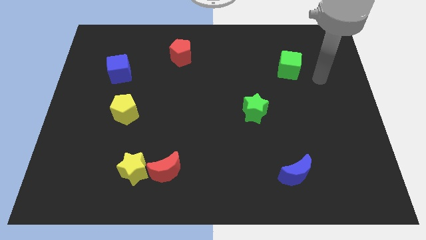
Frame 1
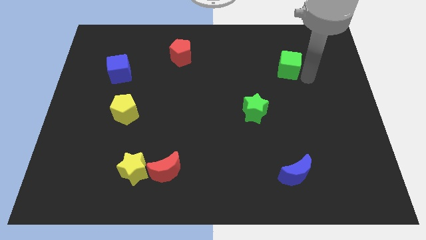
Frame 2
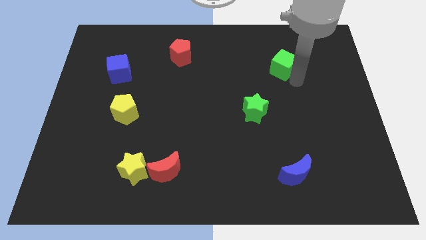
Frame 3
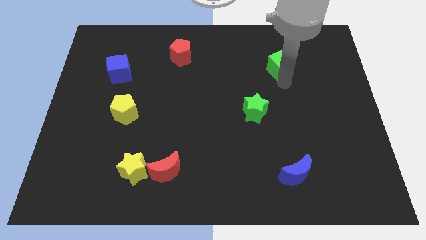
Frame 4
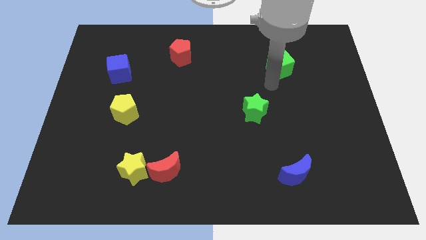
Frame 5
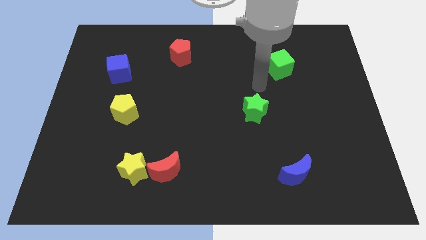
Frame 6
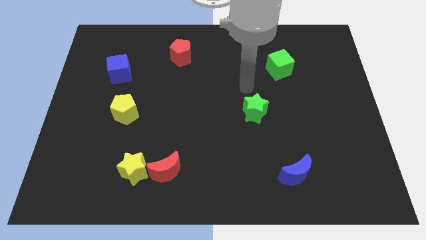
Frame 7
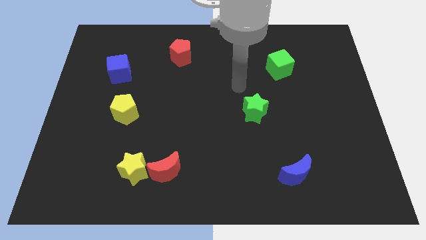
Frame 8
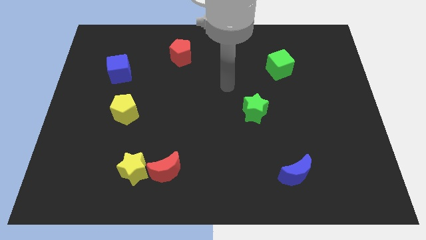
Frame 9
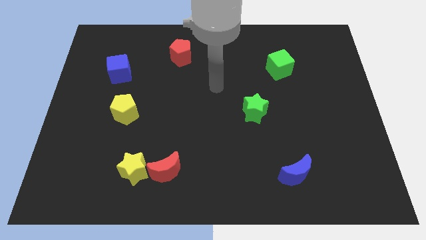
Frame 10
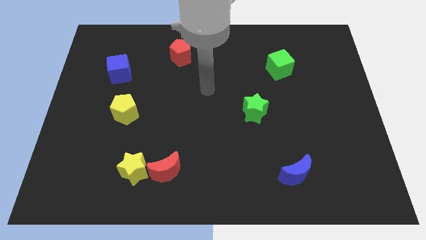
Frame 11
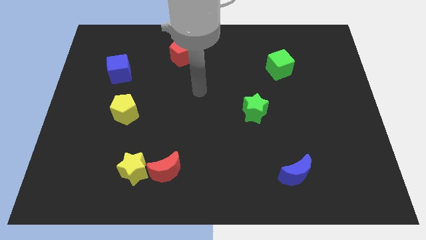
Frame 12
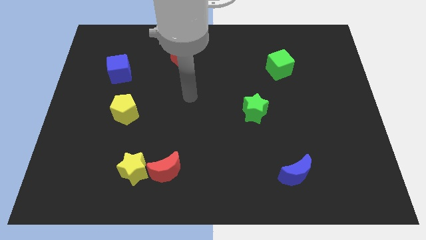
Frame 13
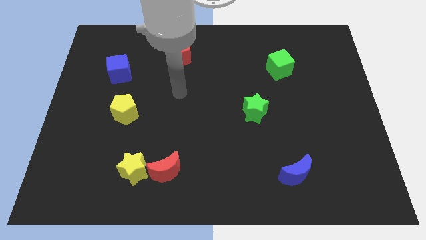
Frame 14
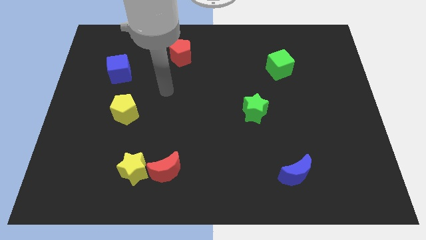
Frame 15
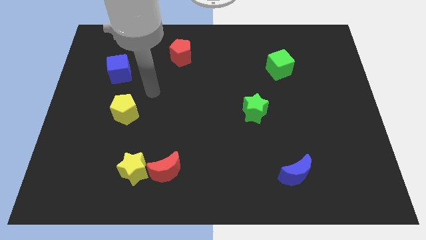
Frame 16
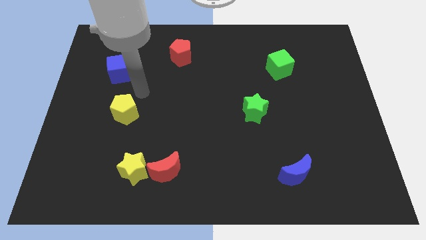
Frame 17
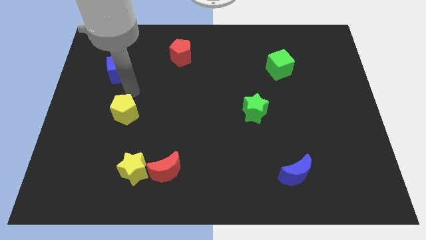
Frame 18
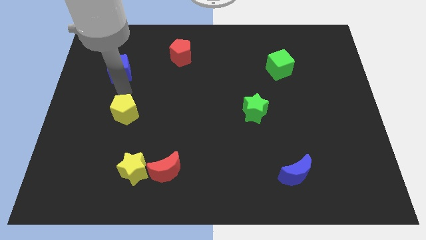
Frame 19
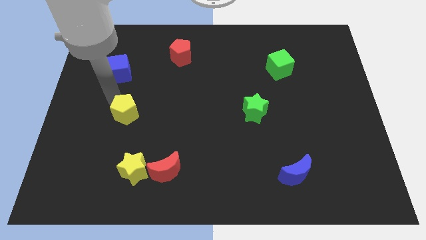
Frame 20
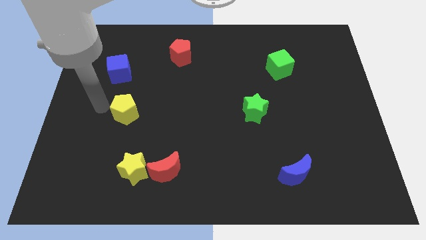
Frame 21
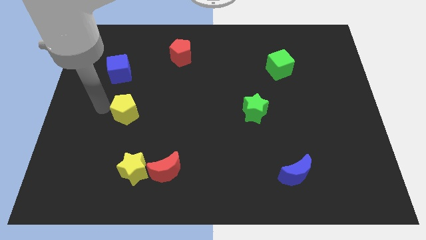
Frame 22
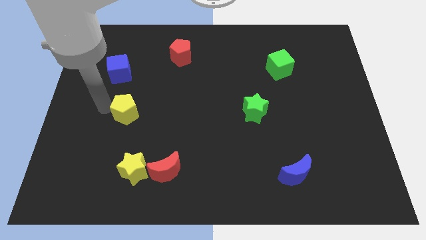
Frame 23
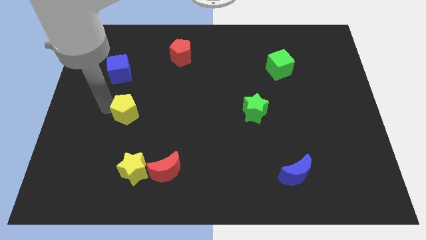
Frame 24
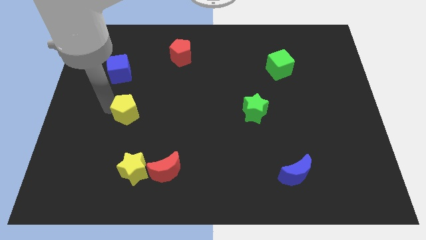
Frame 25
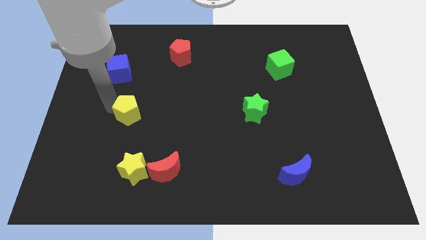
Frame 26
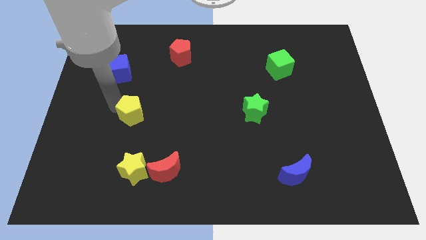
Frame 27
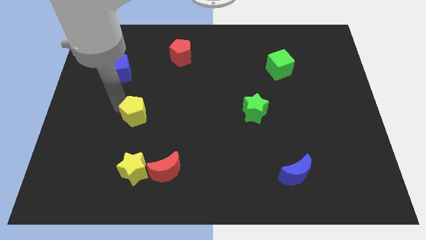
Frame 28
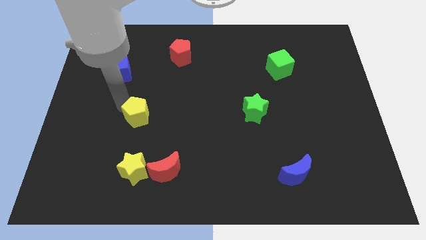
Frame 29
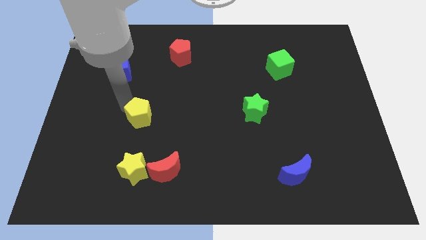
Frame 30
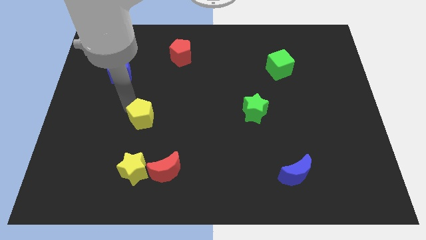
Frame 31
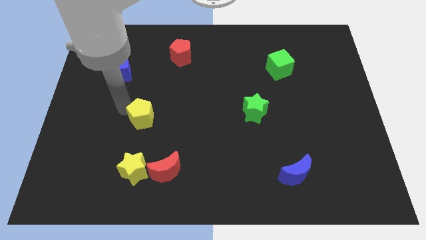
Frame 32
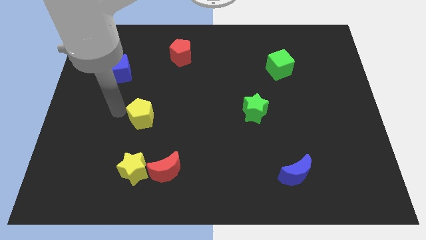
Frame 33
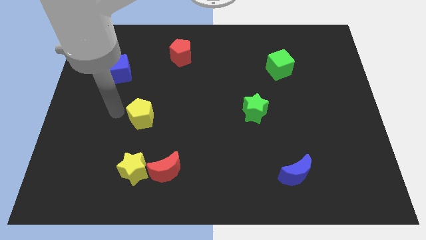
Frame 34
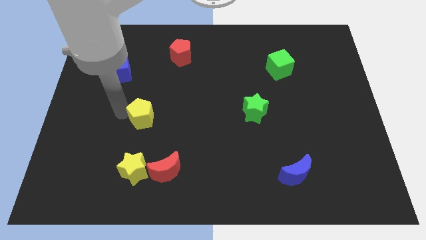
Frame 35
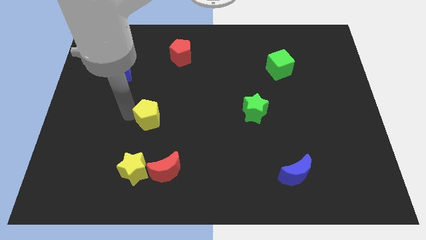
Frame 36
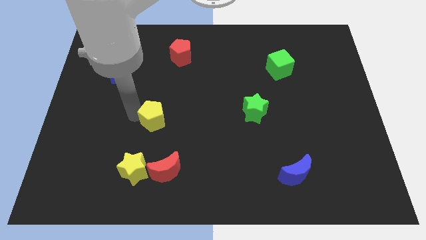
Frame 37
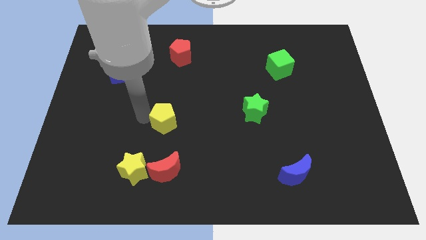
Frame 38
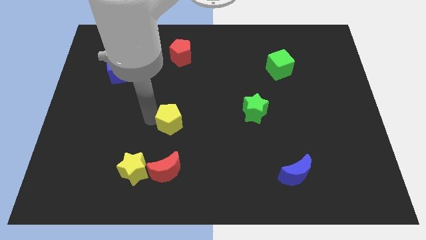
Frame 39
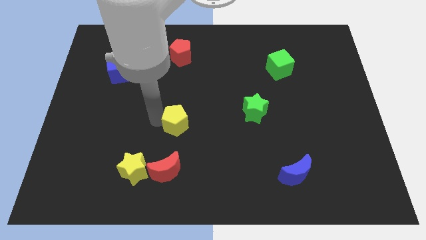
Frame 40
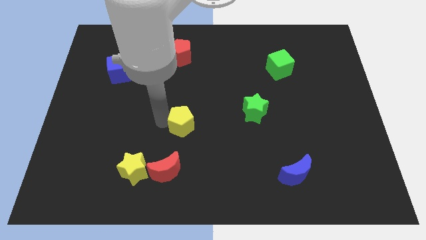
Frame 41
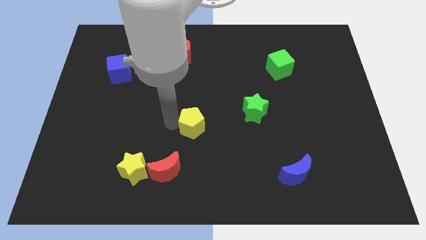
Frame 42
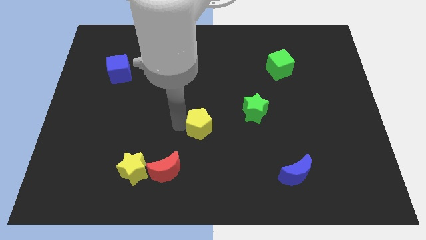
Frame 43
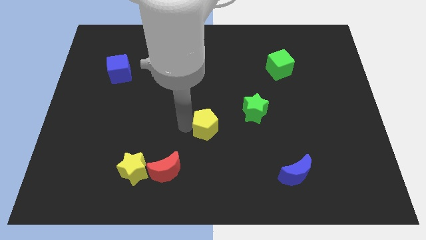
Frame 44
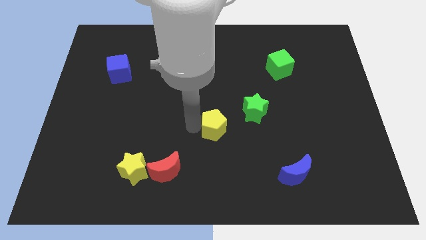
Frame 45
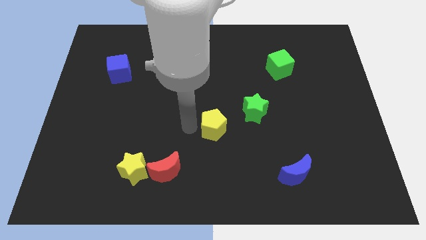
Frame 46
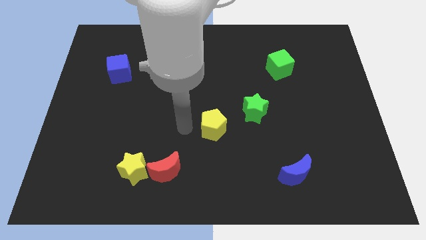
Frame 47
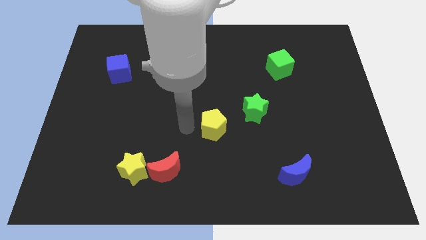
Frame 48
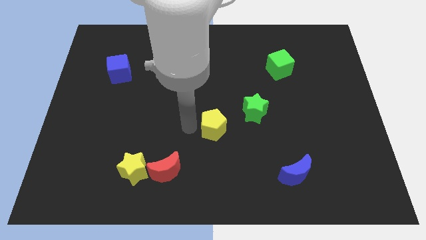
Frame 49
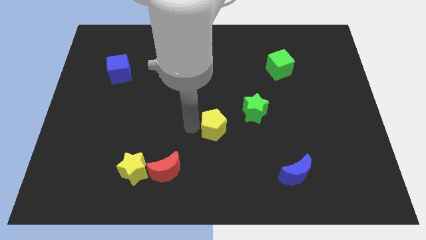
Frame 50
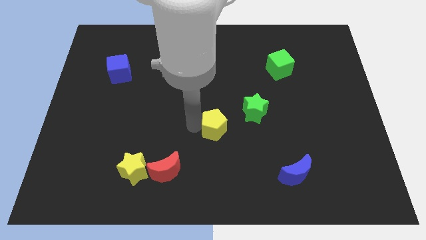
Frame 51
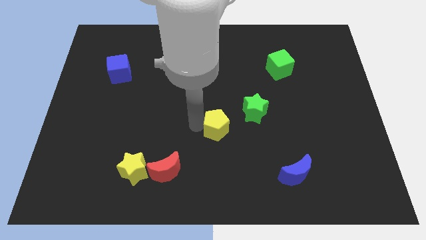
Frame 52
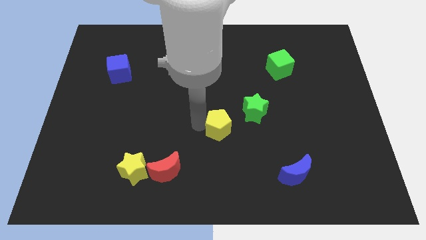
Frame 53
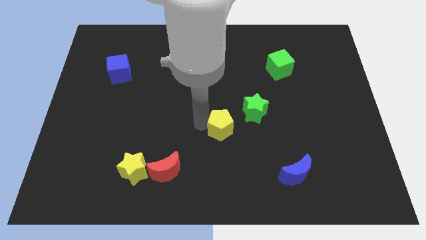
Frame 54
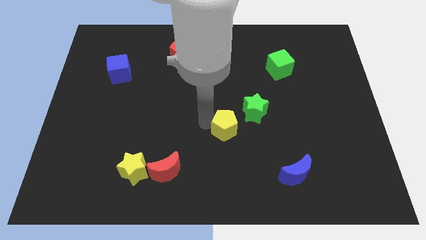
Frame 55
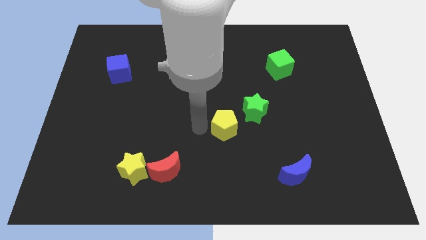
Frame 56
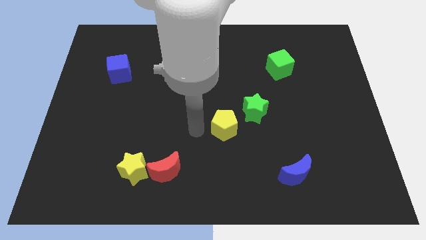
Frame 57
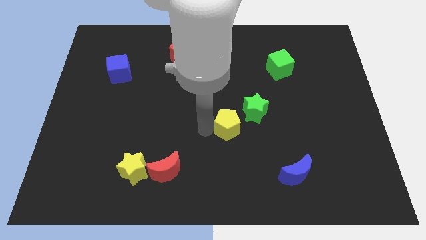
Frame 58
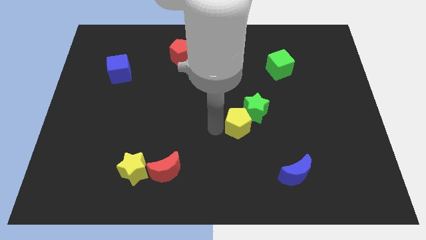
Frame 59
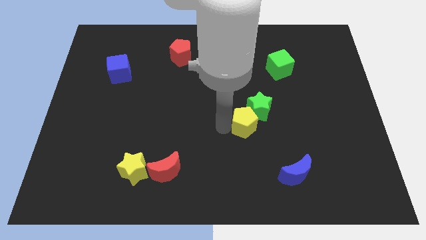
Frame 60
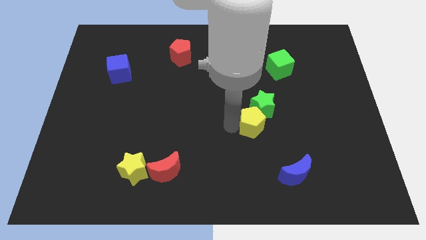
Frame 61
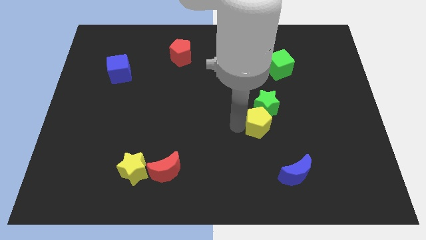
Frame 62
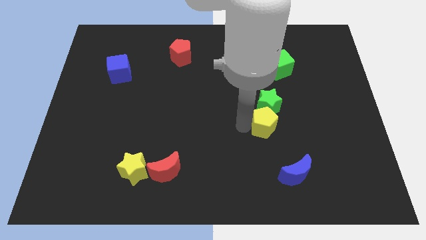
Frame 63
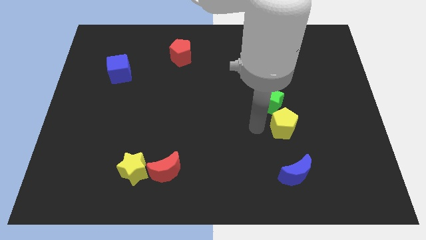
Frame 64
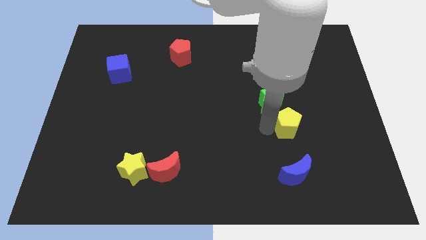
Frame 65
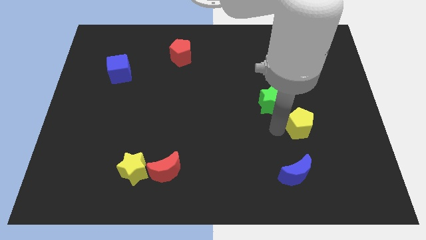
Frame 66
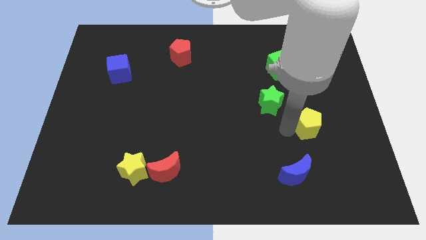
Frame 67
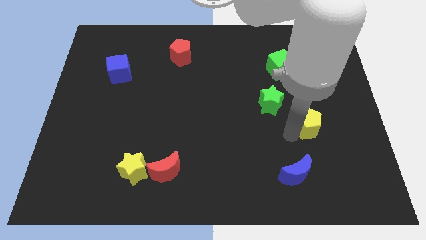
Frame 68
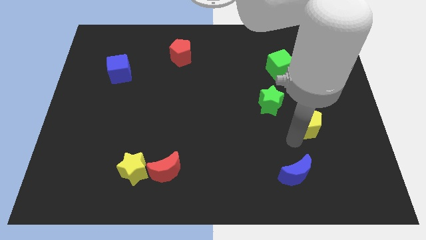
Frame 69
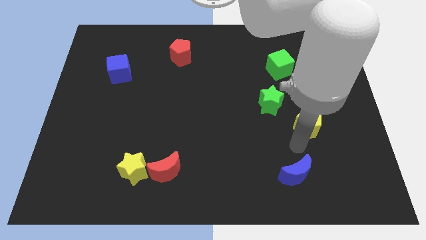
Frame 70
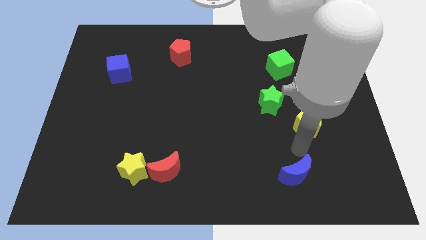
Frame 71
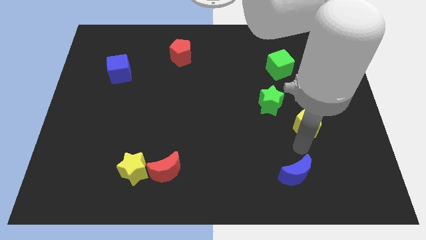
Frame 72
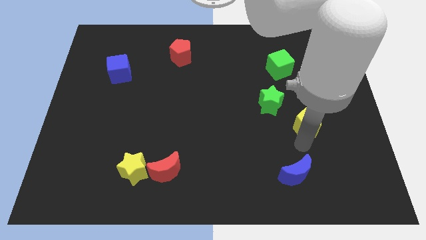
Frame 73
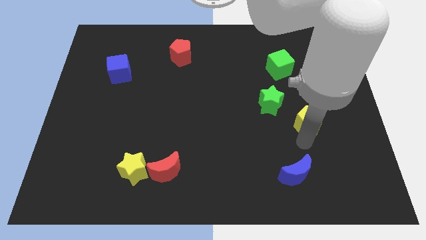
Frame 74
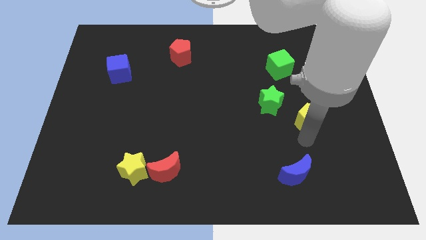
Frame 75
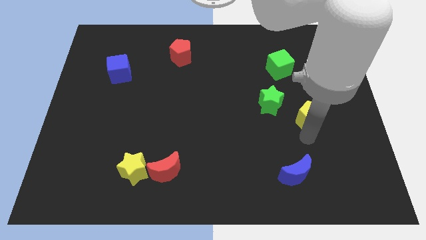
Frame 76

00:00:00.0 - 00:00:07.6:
push the yellow pentagon just right of the green star
